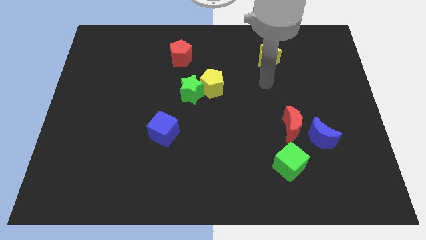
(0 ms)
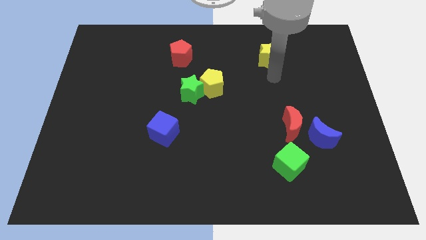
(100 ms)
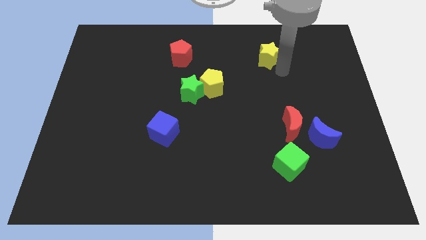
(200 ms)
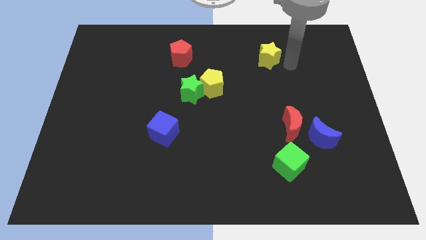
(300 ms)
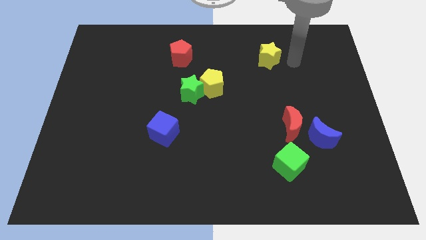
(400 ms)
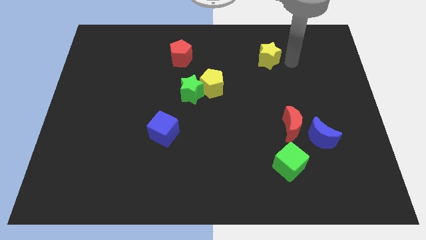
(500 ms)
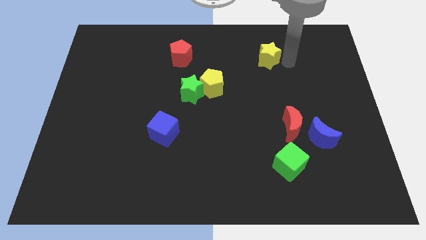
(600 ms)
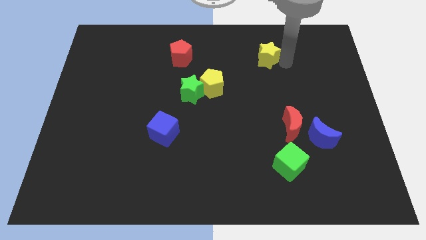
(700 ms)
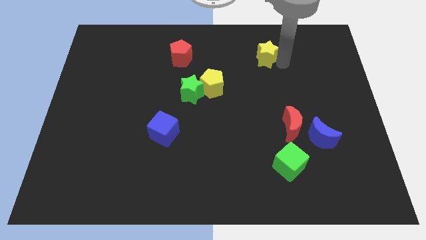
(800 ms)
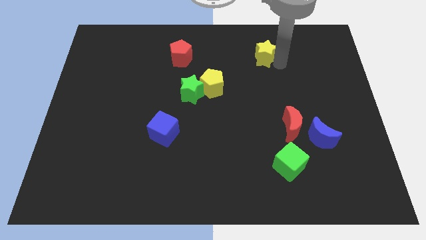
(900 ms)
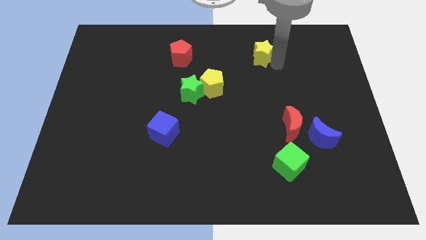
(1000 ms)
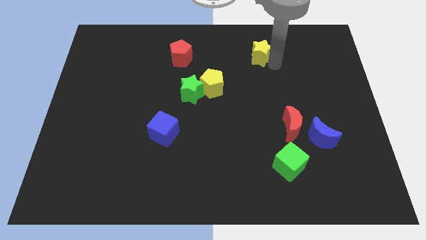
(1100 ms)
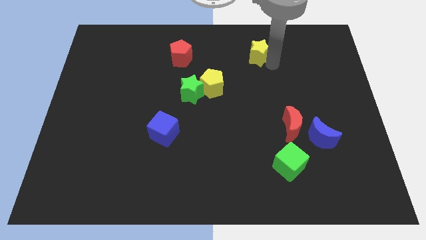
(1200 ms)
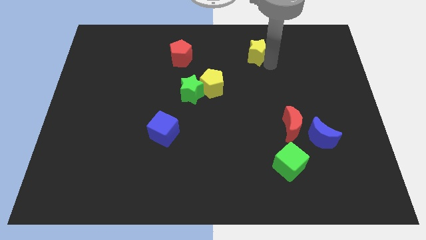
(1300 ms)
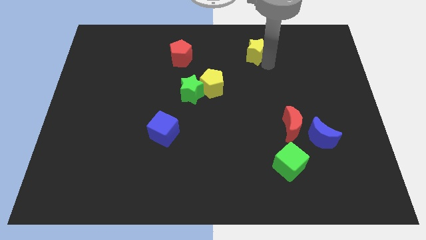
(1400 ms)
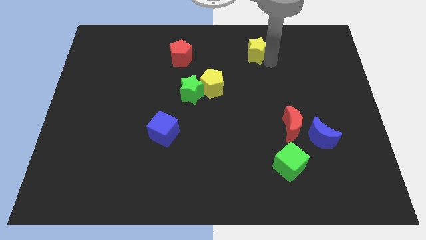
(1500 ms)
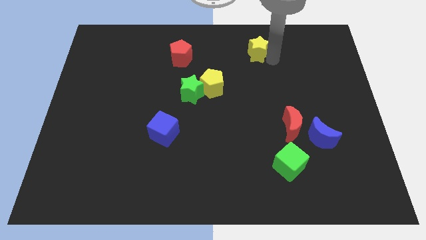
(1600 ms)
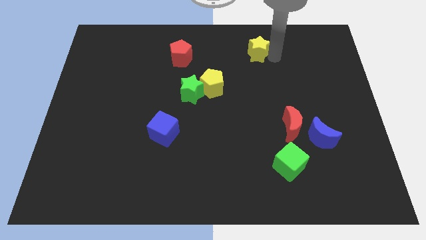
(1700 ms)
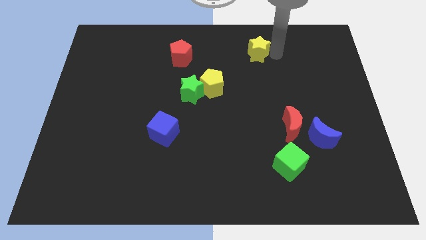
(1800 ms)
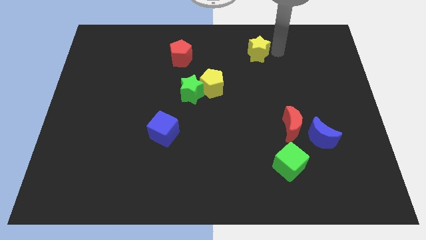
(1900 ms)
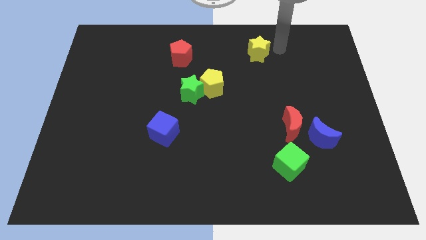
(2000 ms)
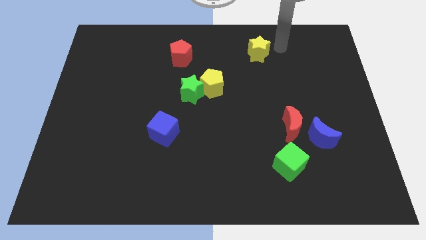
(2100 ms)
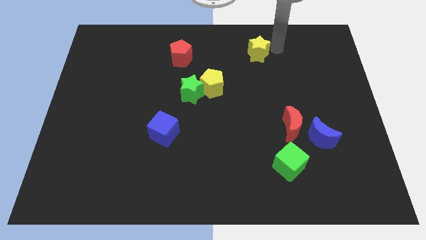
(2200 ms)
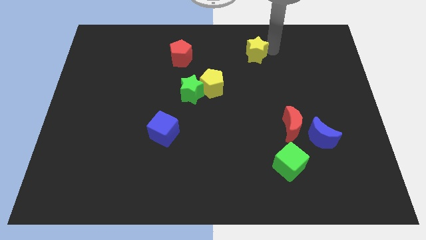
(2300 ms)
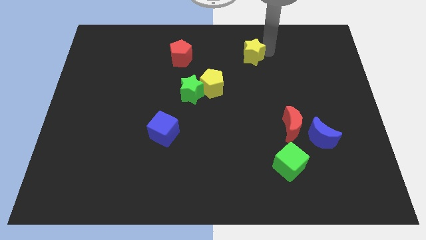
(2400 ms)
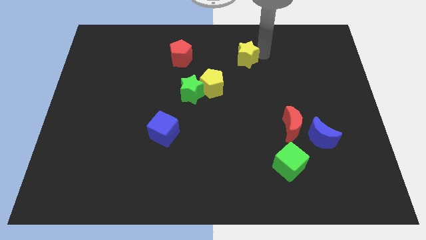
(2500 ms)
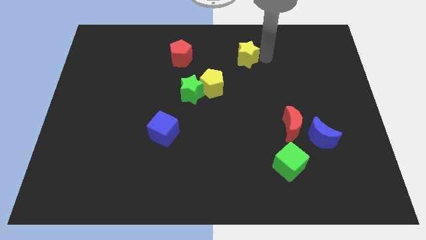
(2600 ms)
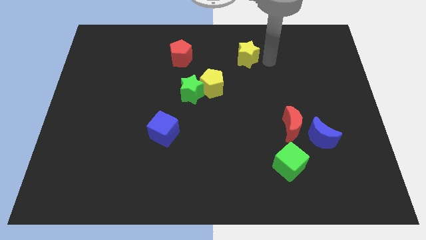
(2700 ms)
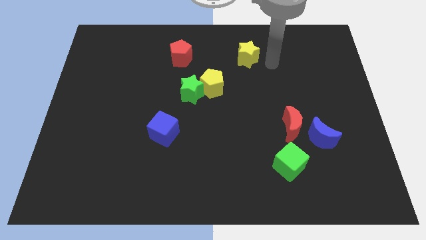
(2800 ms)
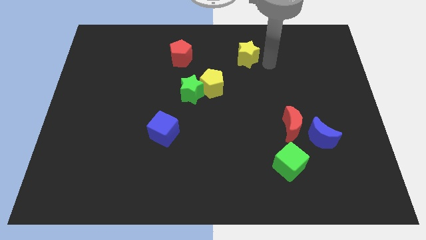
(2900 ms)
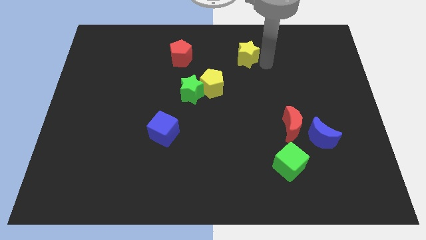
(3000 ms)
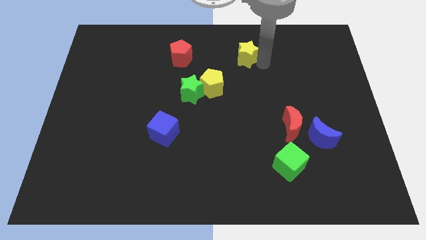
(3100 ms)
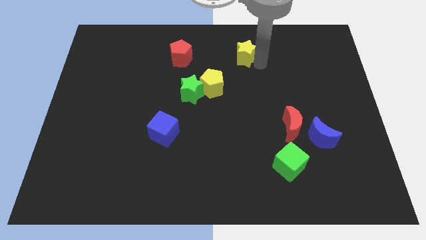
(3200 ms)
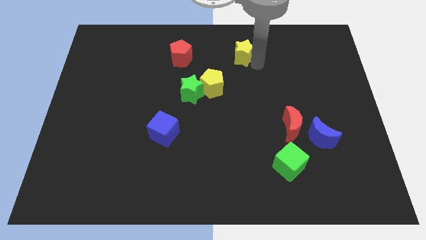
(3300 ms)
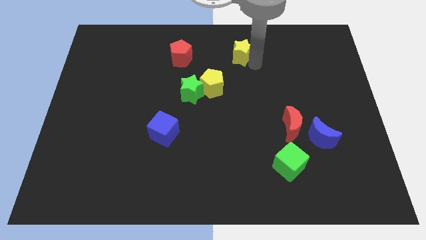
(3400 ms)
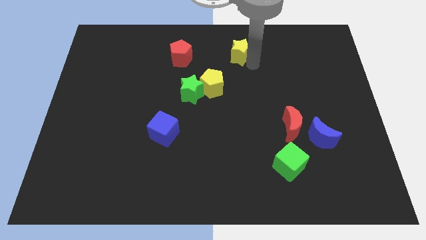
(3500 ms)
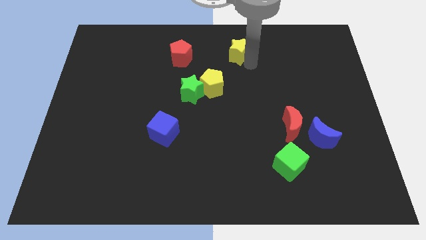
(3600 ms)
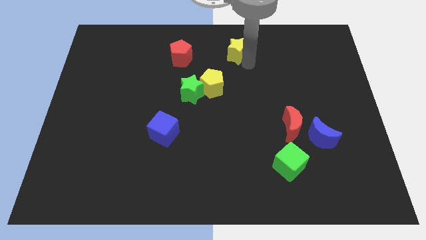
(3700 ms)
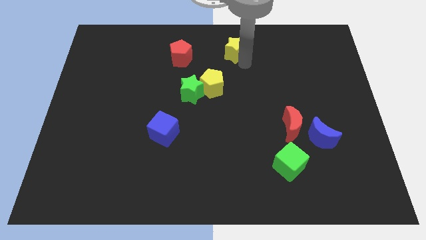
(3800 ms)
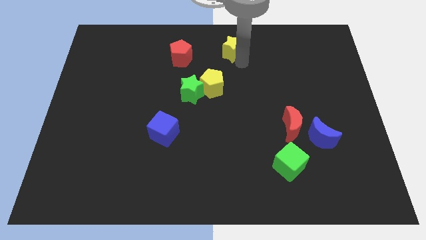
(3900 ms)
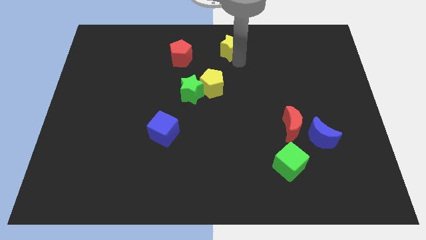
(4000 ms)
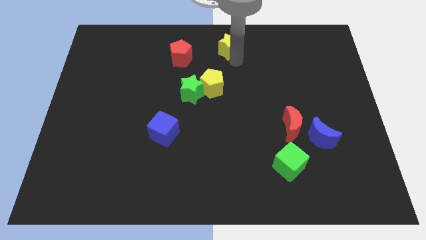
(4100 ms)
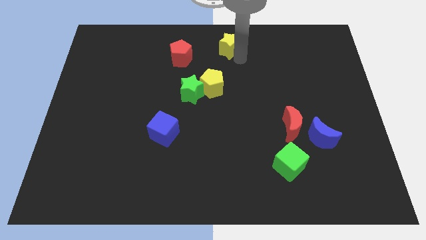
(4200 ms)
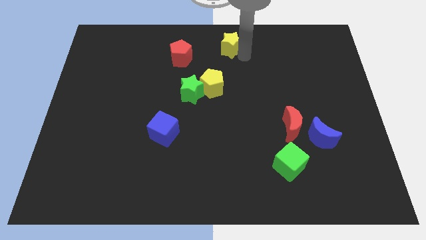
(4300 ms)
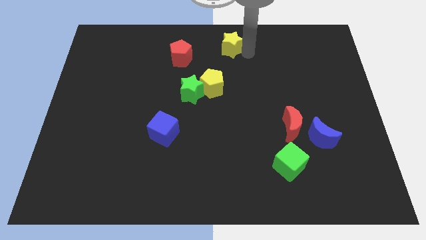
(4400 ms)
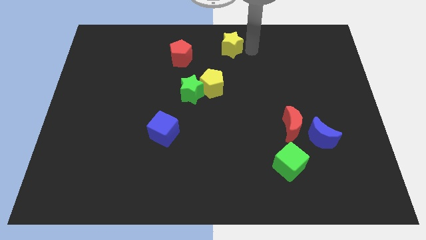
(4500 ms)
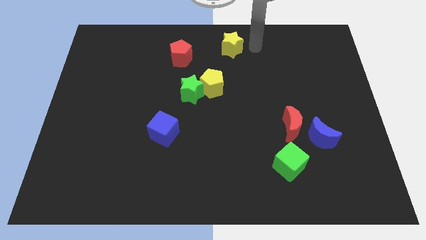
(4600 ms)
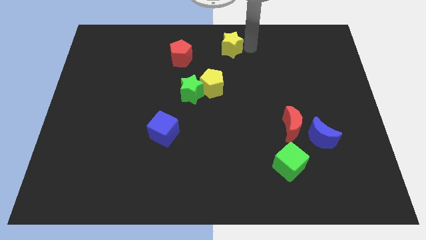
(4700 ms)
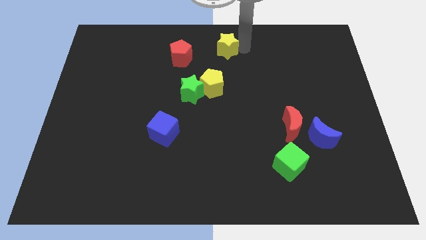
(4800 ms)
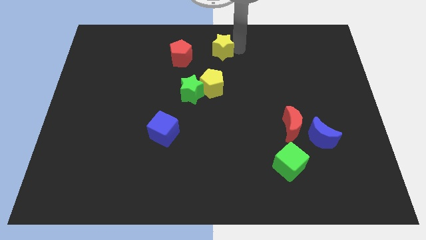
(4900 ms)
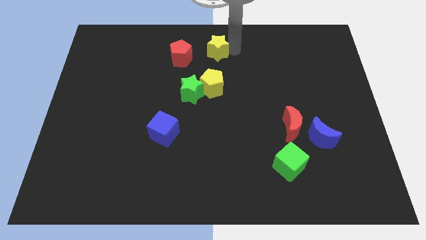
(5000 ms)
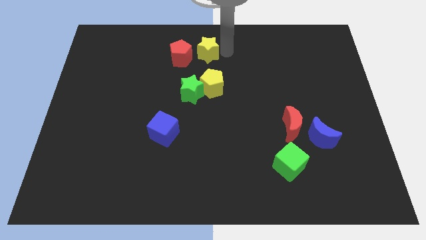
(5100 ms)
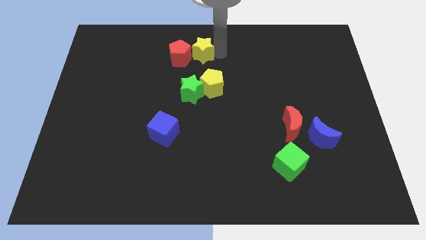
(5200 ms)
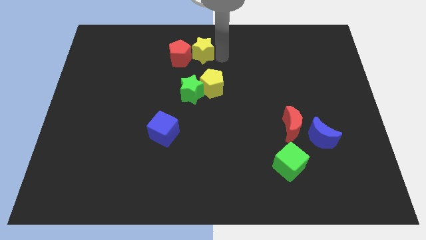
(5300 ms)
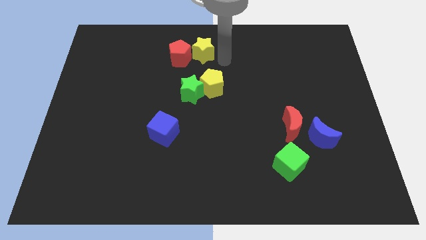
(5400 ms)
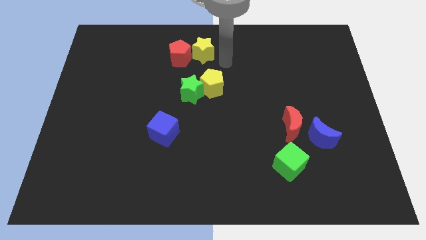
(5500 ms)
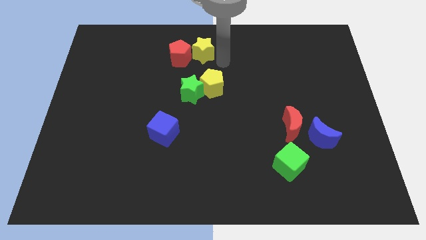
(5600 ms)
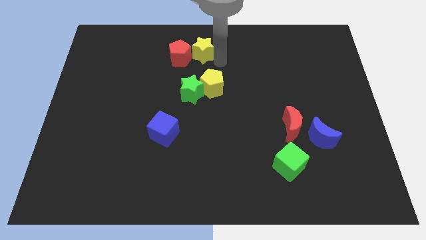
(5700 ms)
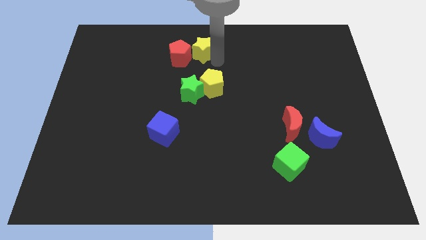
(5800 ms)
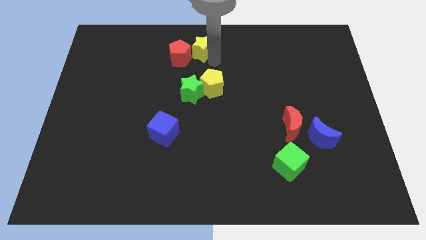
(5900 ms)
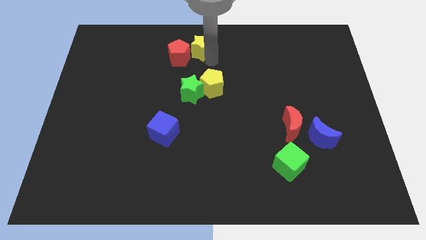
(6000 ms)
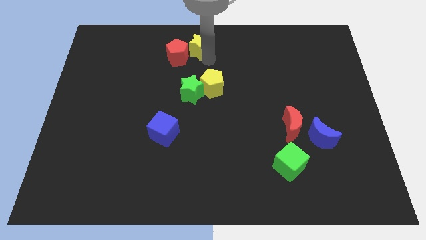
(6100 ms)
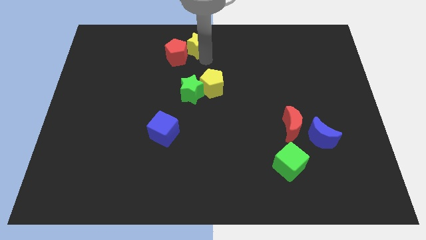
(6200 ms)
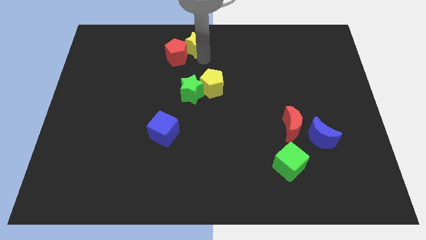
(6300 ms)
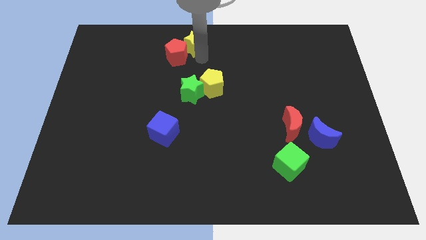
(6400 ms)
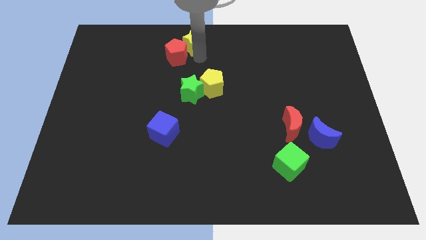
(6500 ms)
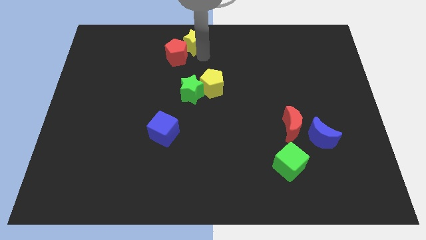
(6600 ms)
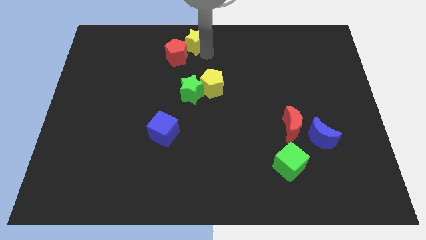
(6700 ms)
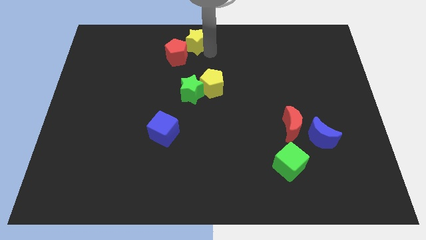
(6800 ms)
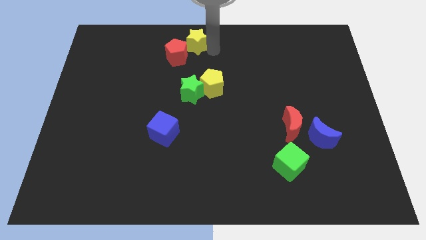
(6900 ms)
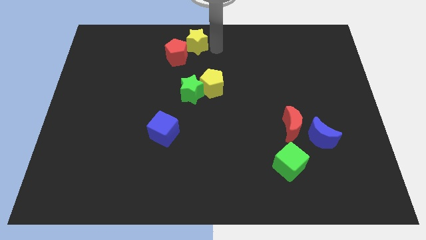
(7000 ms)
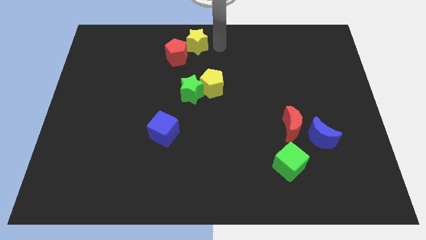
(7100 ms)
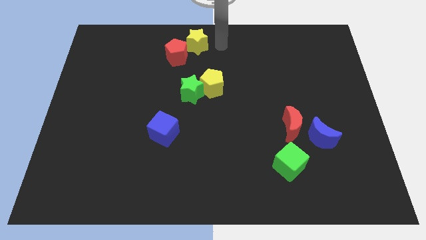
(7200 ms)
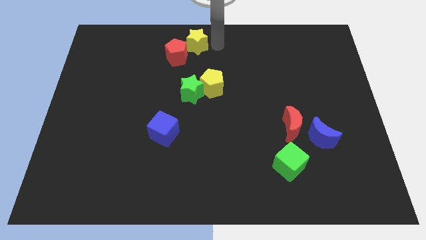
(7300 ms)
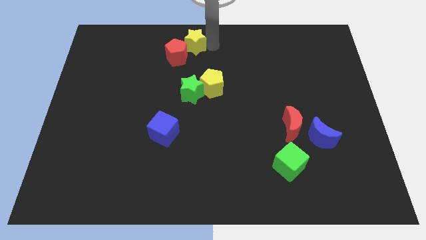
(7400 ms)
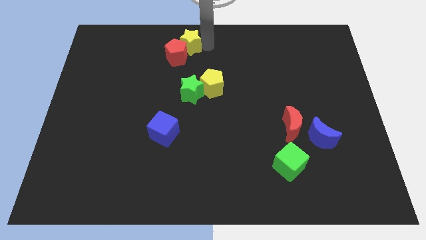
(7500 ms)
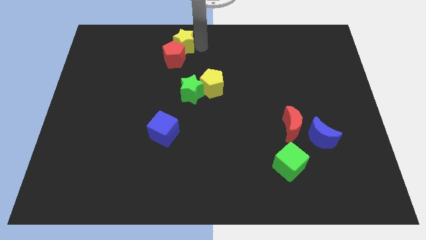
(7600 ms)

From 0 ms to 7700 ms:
move the yellow star left

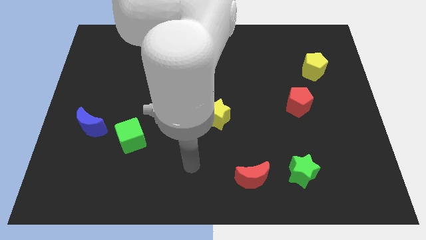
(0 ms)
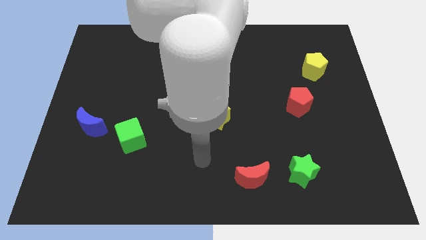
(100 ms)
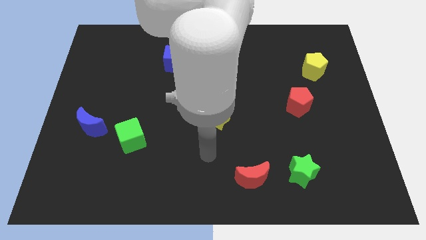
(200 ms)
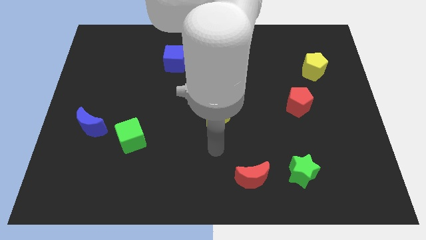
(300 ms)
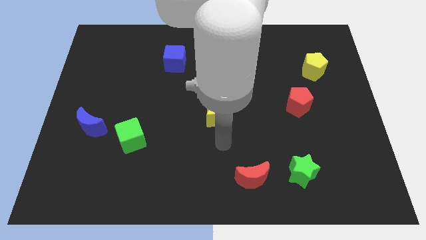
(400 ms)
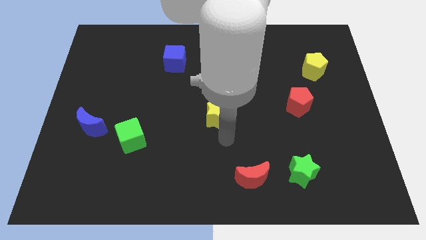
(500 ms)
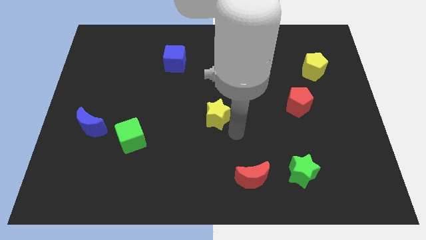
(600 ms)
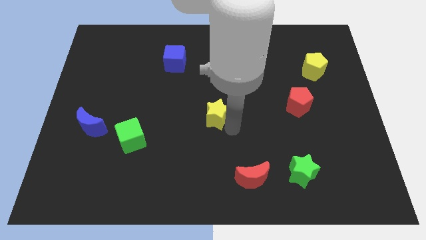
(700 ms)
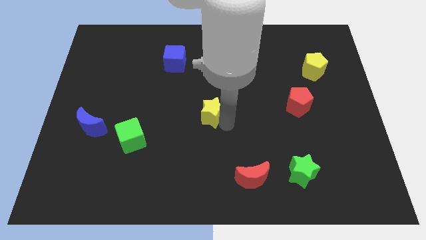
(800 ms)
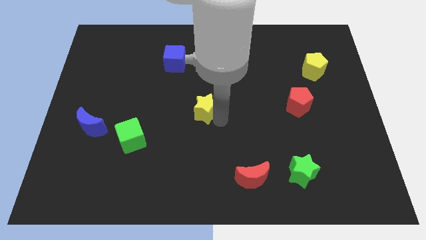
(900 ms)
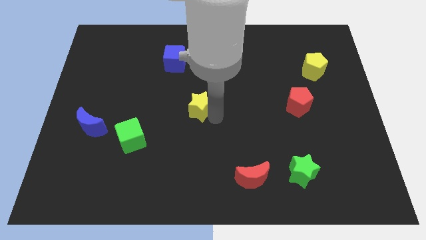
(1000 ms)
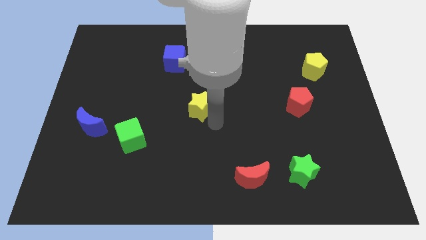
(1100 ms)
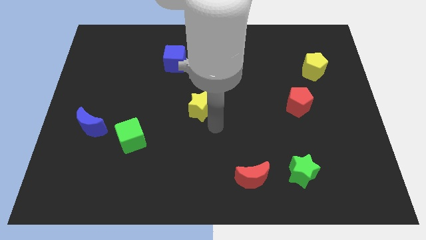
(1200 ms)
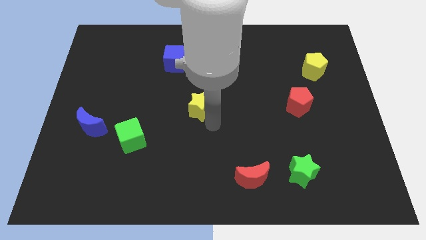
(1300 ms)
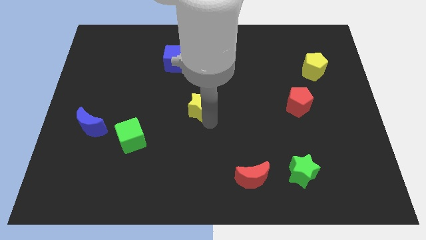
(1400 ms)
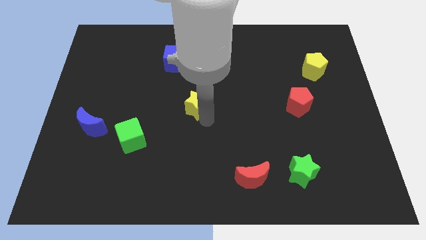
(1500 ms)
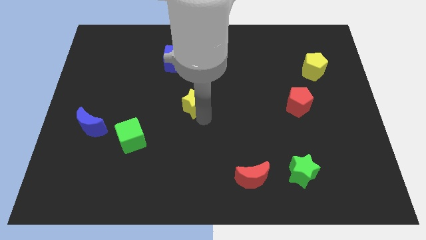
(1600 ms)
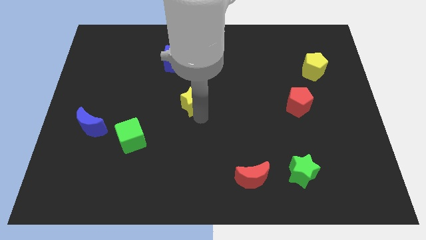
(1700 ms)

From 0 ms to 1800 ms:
push the yellow star upwards and then to the left a little
